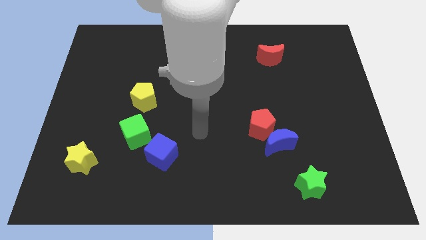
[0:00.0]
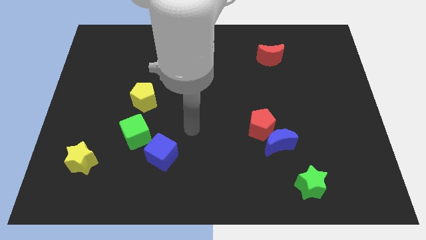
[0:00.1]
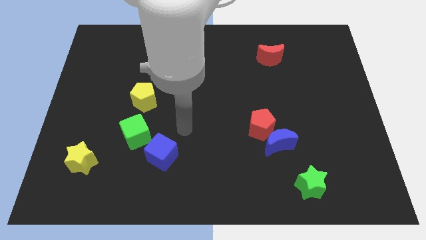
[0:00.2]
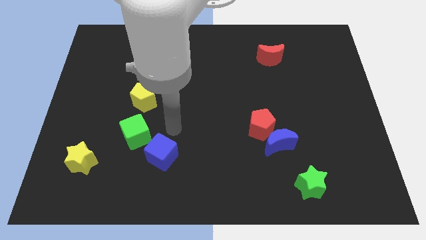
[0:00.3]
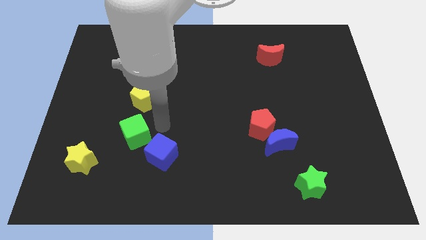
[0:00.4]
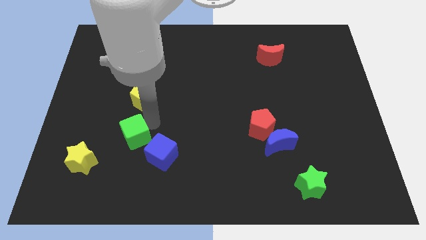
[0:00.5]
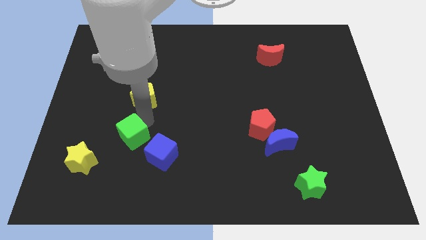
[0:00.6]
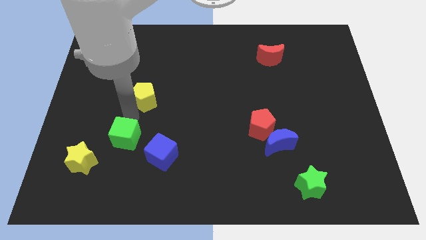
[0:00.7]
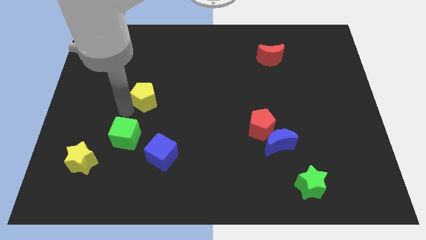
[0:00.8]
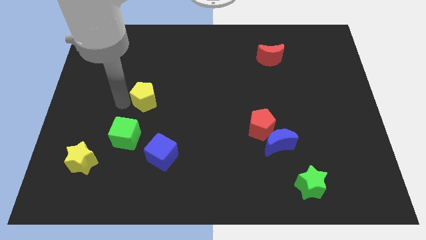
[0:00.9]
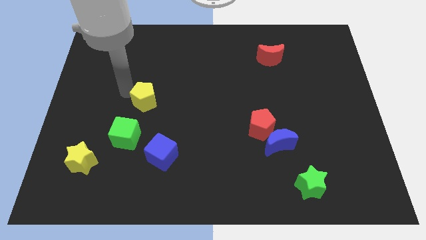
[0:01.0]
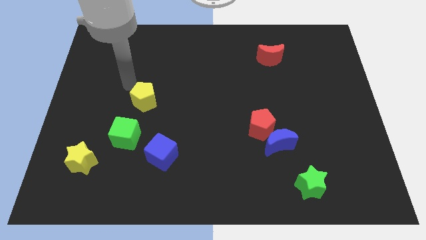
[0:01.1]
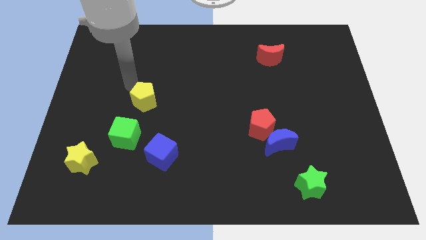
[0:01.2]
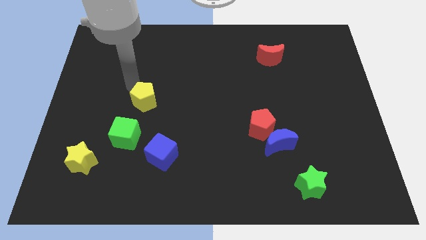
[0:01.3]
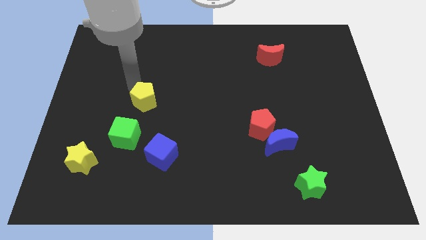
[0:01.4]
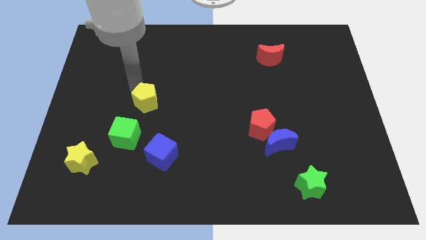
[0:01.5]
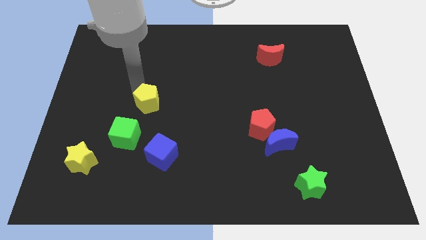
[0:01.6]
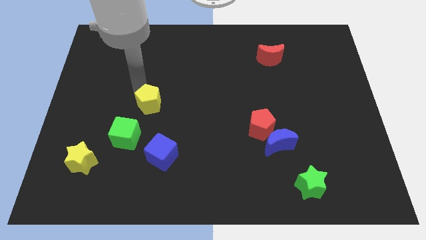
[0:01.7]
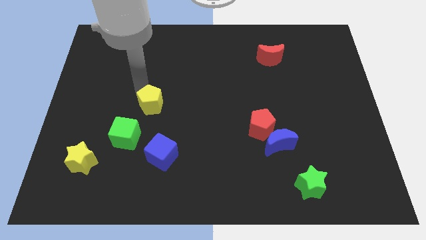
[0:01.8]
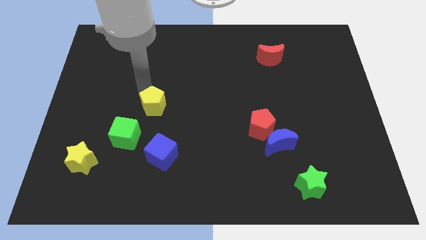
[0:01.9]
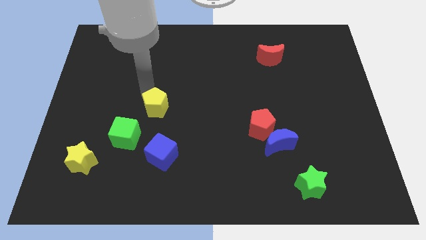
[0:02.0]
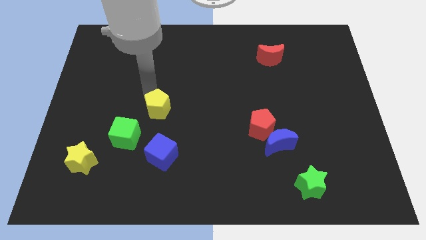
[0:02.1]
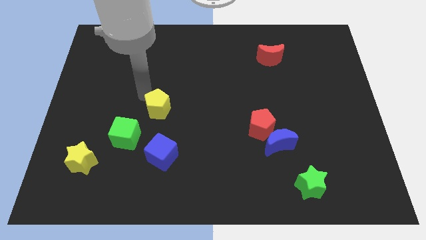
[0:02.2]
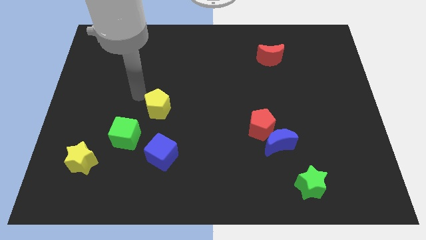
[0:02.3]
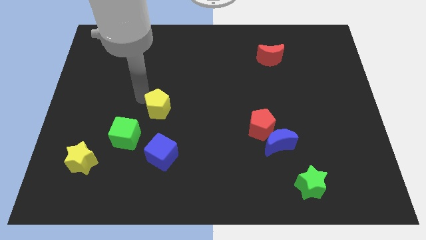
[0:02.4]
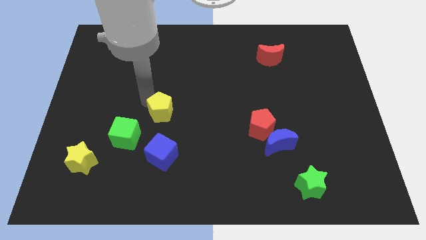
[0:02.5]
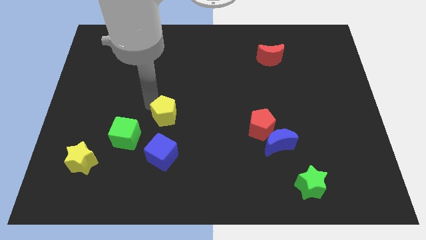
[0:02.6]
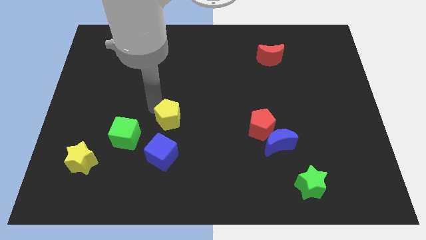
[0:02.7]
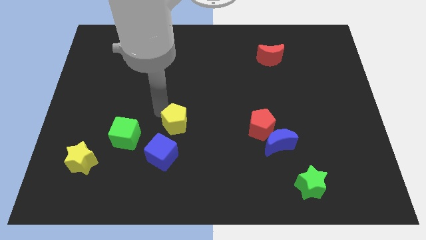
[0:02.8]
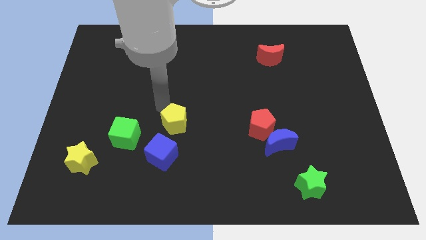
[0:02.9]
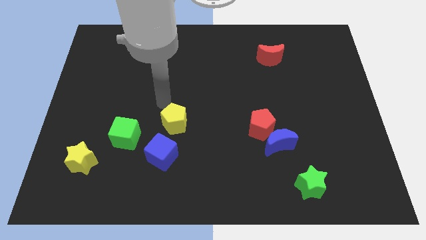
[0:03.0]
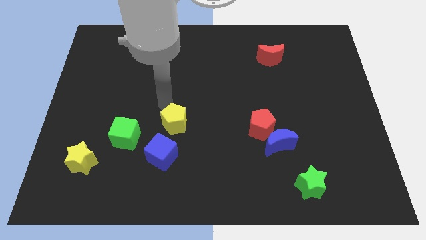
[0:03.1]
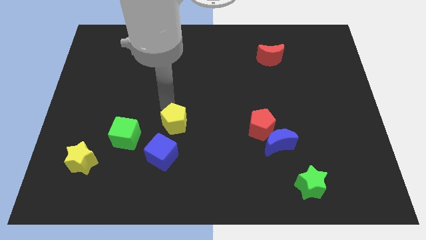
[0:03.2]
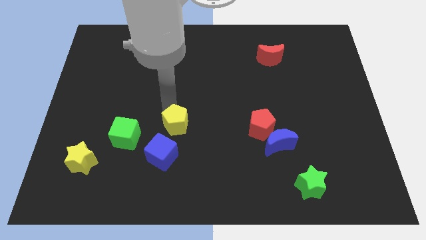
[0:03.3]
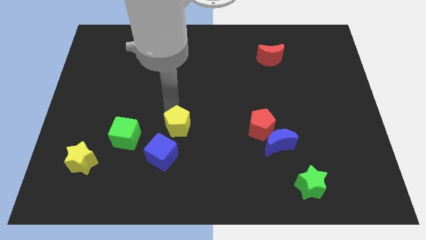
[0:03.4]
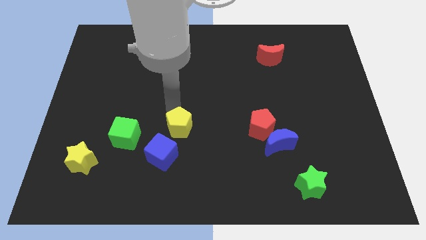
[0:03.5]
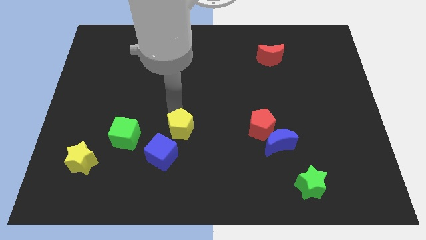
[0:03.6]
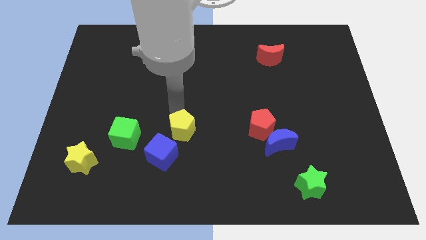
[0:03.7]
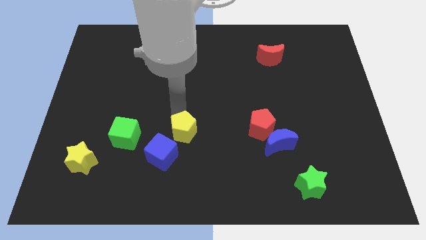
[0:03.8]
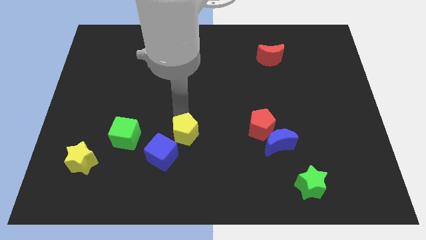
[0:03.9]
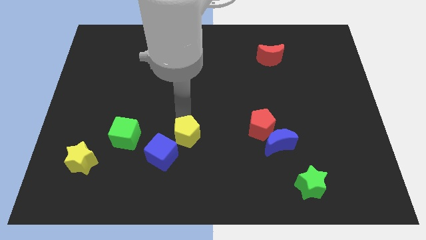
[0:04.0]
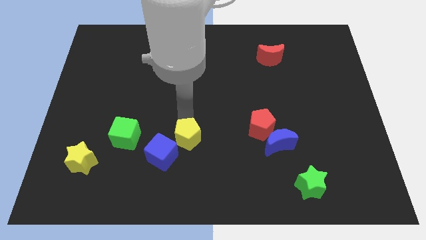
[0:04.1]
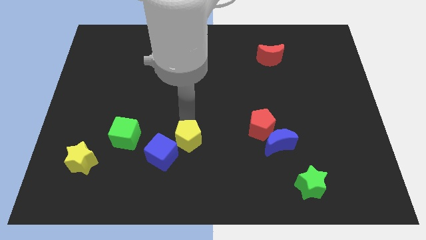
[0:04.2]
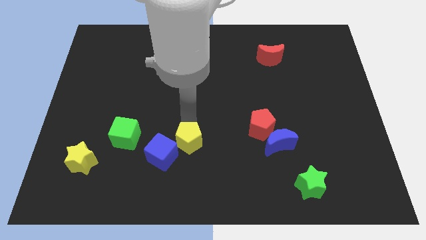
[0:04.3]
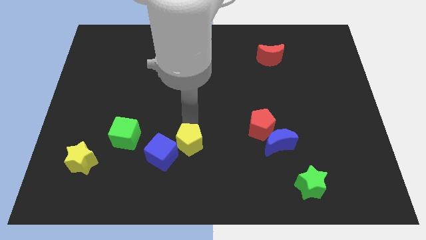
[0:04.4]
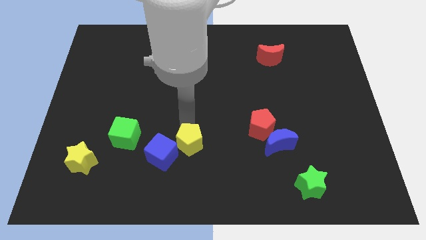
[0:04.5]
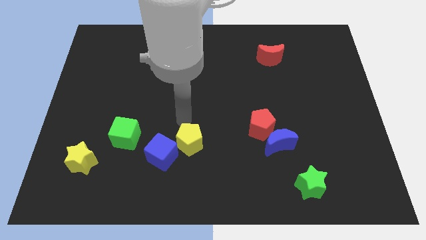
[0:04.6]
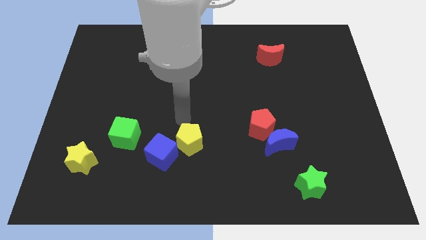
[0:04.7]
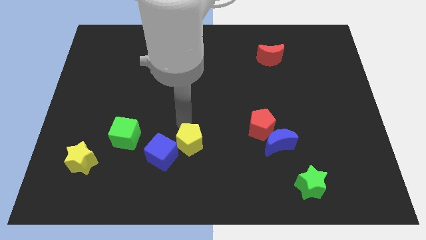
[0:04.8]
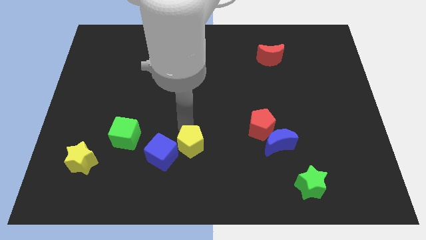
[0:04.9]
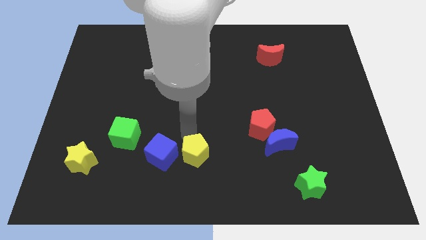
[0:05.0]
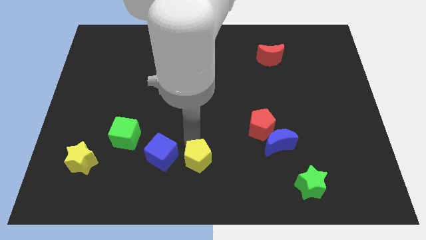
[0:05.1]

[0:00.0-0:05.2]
put the yellow pentagon to the bottom

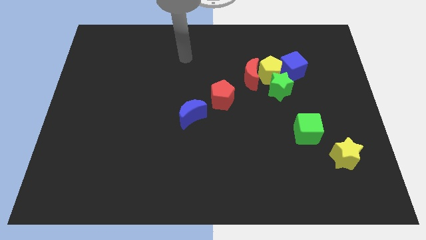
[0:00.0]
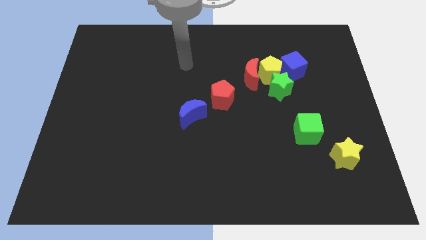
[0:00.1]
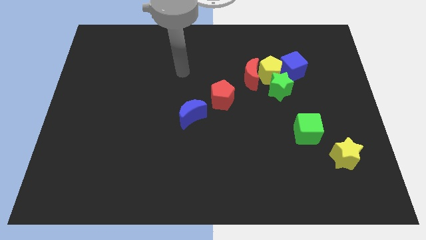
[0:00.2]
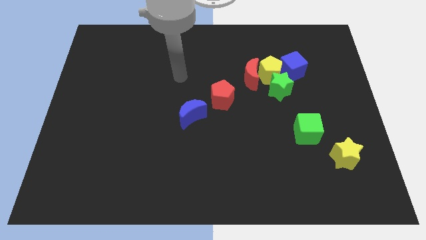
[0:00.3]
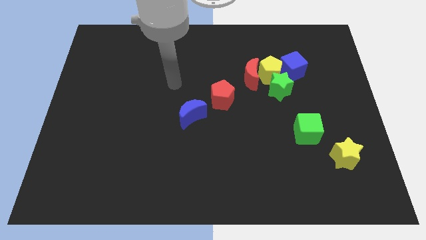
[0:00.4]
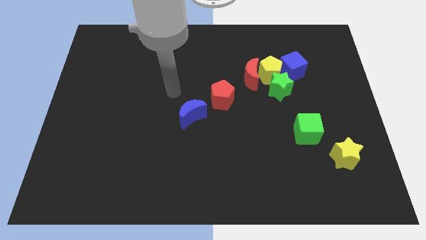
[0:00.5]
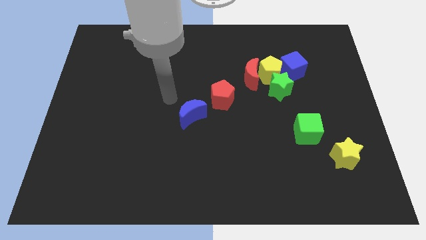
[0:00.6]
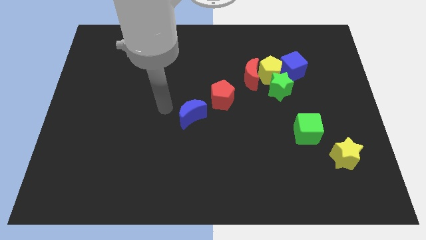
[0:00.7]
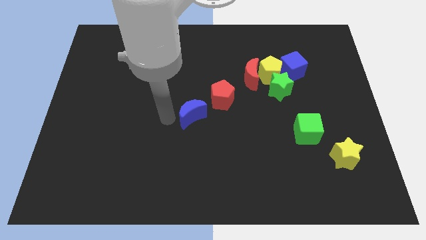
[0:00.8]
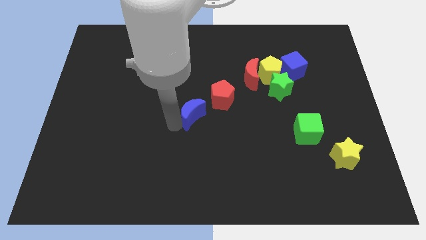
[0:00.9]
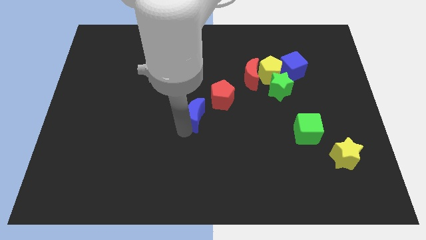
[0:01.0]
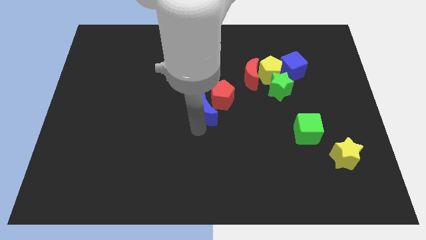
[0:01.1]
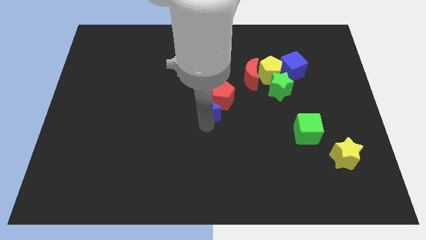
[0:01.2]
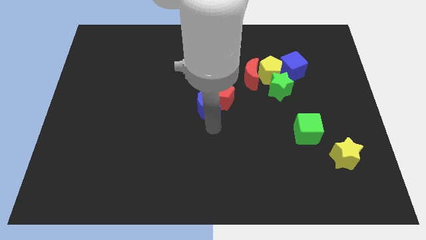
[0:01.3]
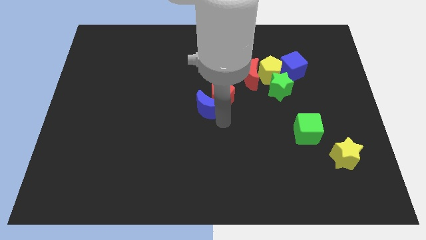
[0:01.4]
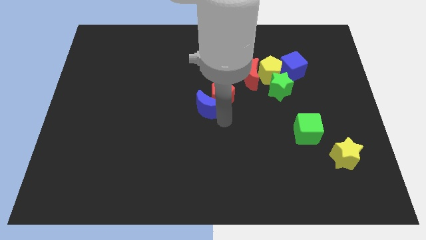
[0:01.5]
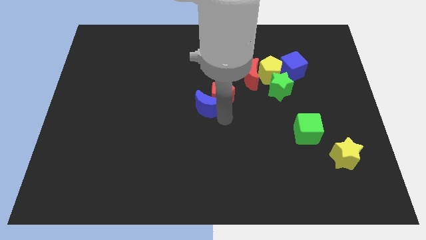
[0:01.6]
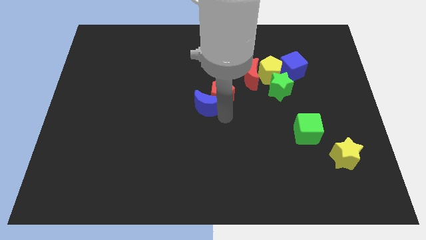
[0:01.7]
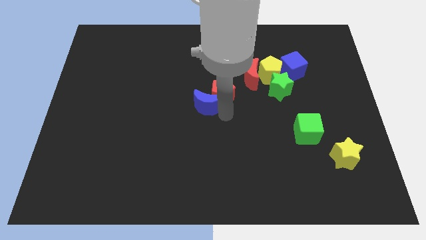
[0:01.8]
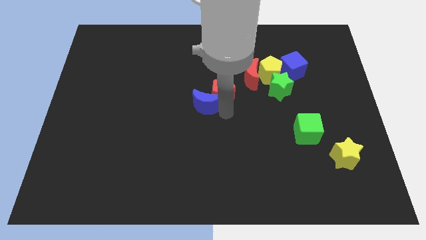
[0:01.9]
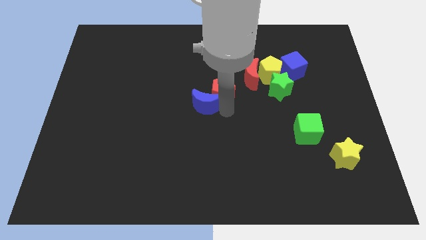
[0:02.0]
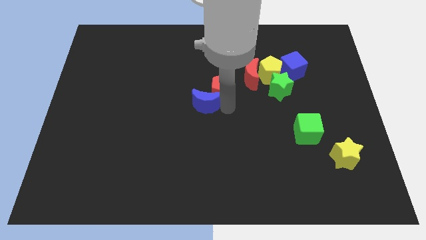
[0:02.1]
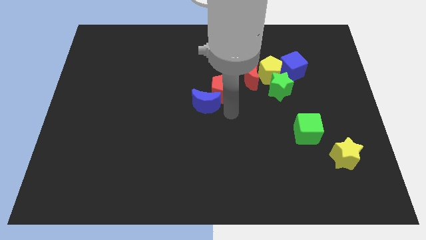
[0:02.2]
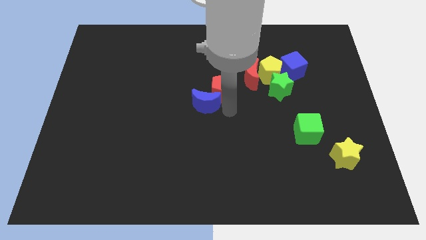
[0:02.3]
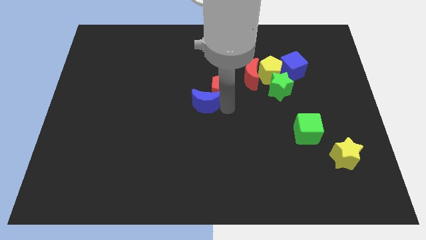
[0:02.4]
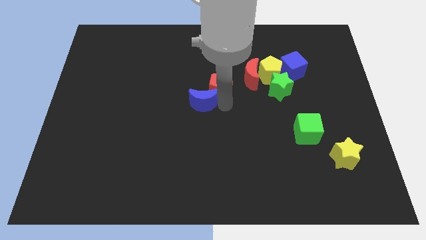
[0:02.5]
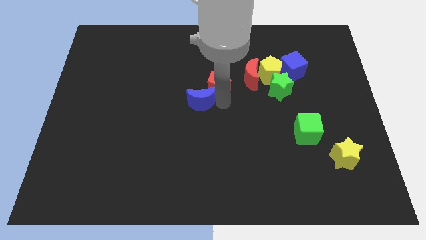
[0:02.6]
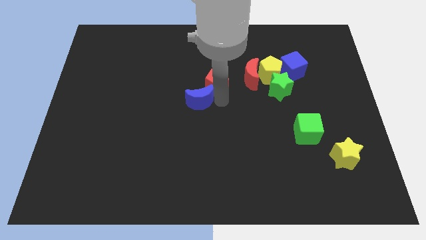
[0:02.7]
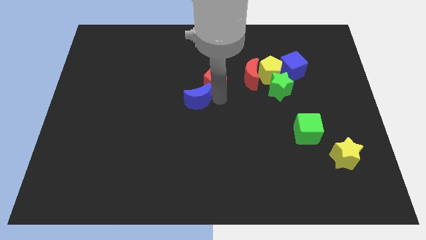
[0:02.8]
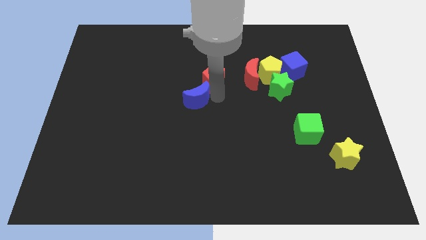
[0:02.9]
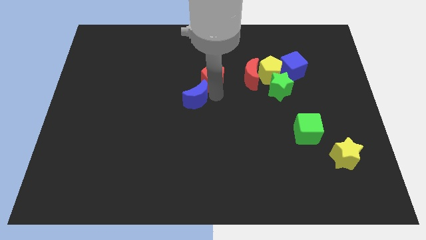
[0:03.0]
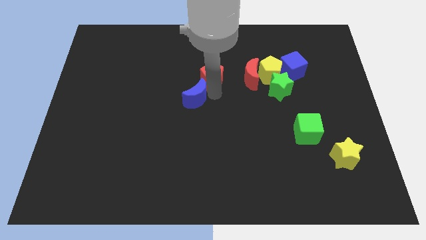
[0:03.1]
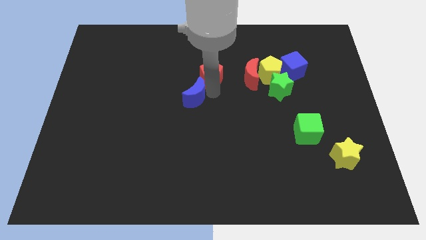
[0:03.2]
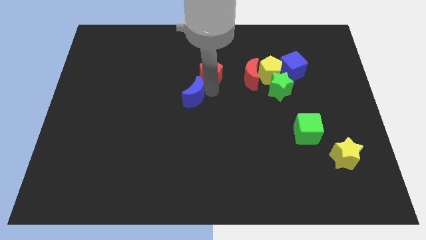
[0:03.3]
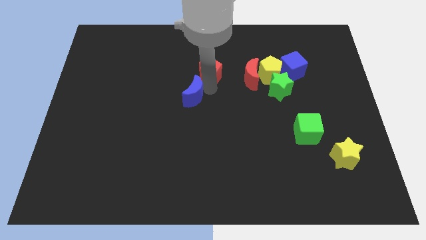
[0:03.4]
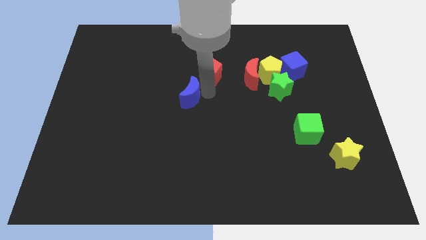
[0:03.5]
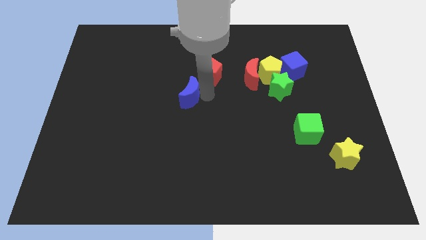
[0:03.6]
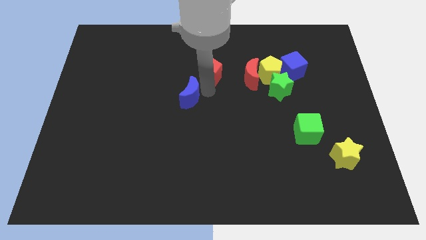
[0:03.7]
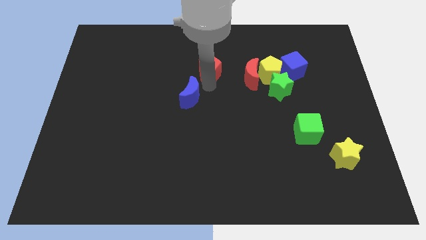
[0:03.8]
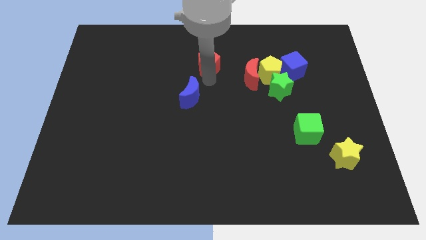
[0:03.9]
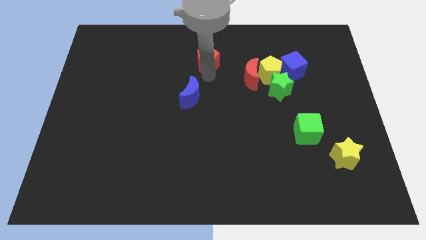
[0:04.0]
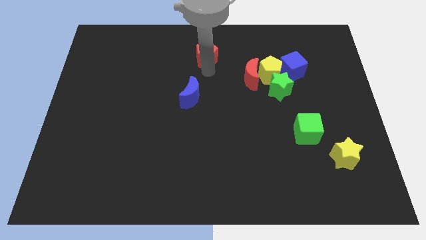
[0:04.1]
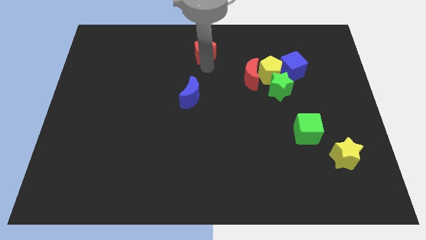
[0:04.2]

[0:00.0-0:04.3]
move the red pentagon to the top side
